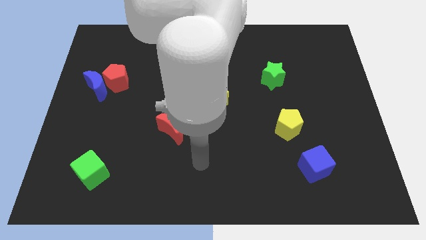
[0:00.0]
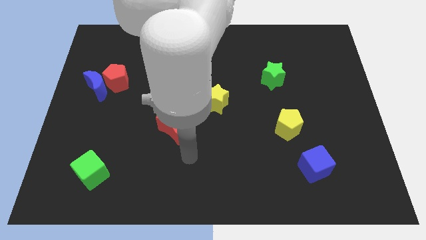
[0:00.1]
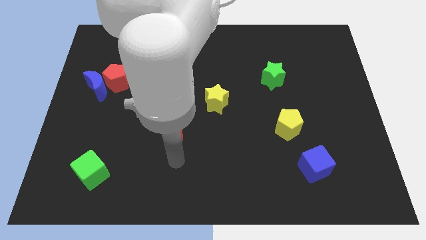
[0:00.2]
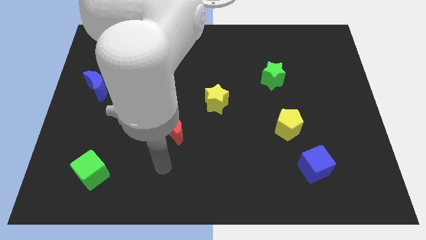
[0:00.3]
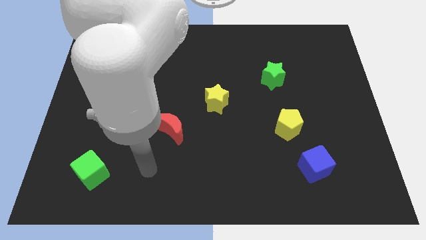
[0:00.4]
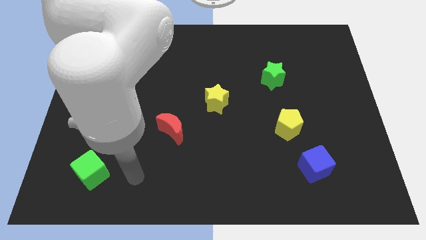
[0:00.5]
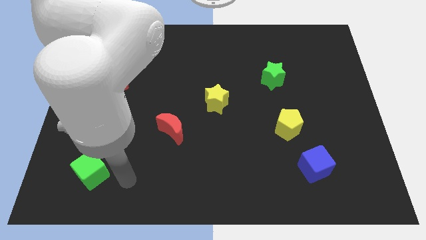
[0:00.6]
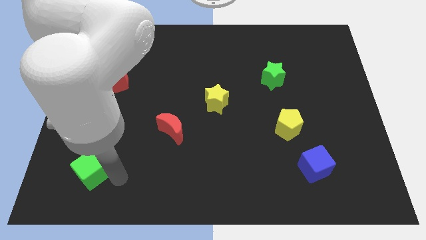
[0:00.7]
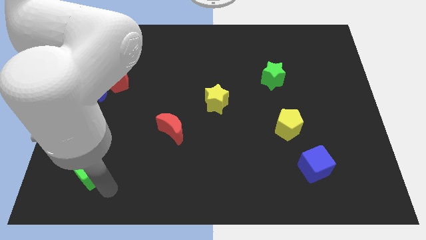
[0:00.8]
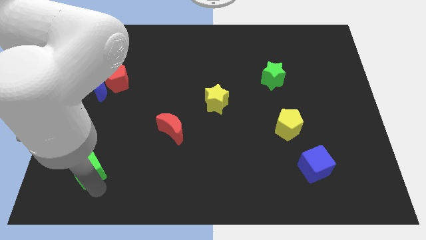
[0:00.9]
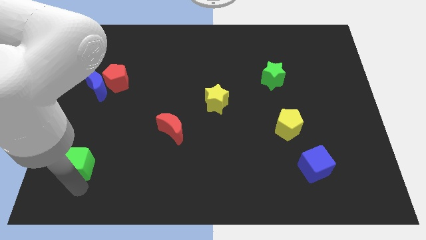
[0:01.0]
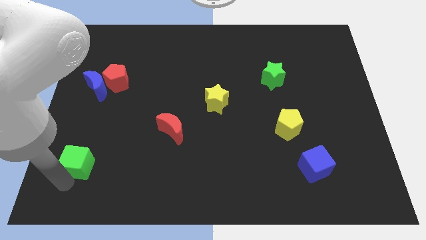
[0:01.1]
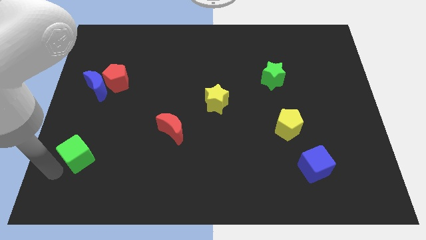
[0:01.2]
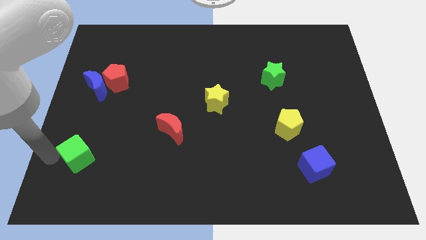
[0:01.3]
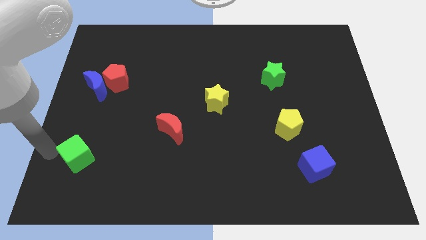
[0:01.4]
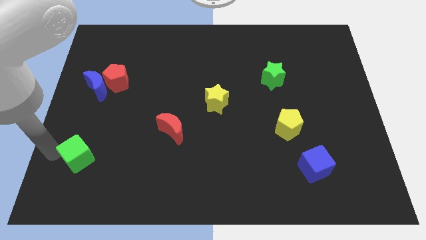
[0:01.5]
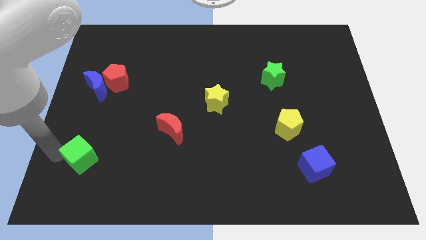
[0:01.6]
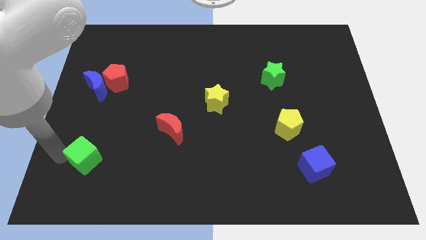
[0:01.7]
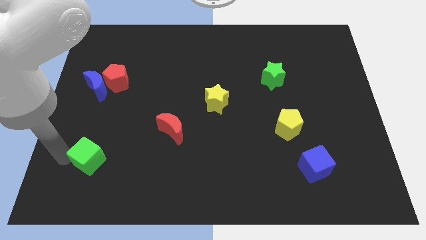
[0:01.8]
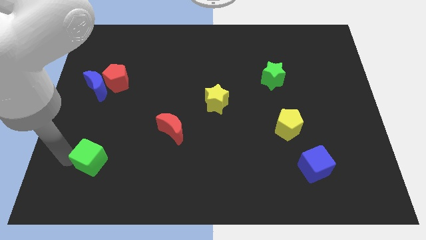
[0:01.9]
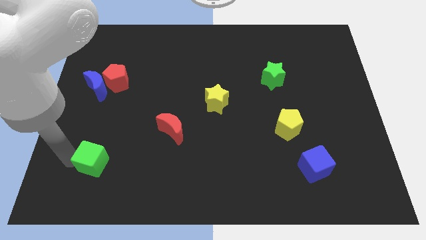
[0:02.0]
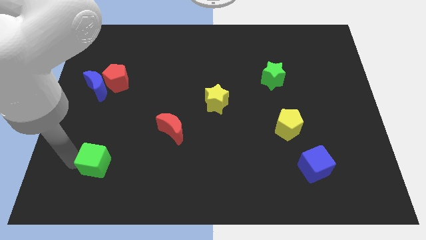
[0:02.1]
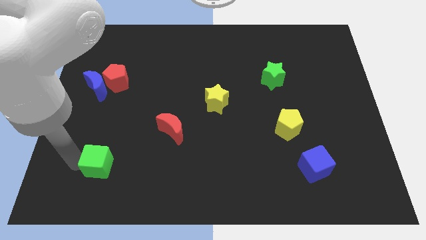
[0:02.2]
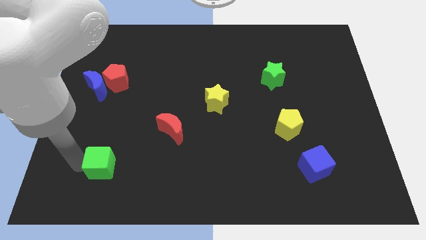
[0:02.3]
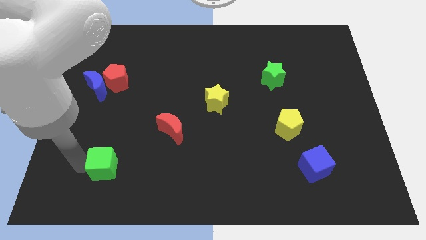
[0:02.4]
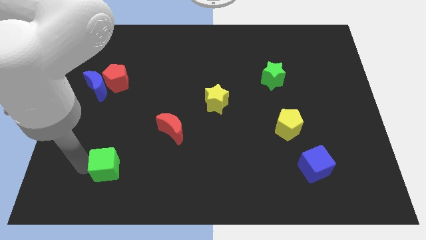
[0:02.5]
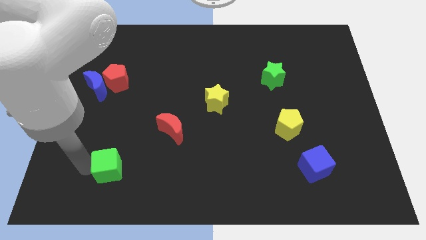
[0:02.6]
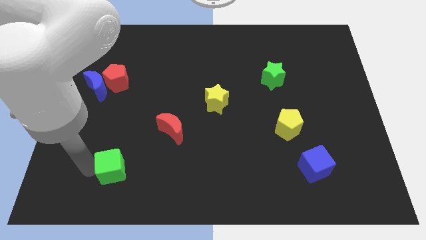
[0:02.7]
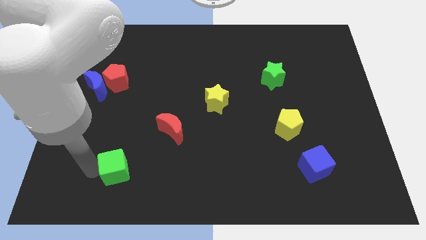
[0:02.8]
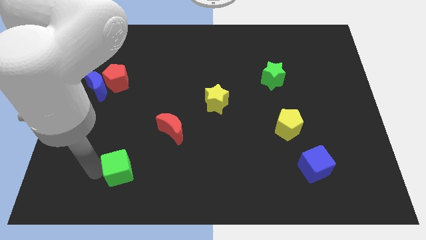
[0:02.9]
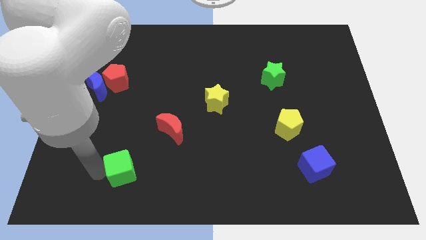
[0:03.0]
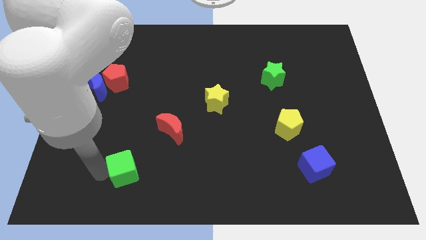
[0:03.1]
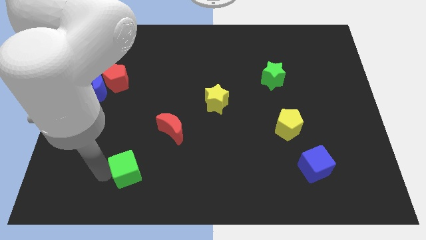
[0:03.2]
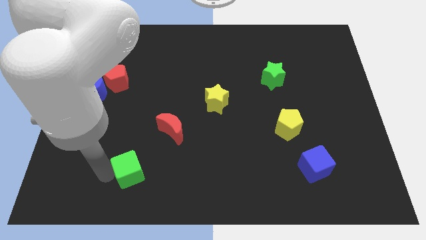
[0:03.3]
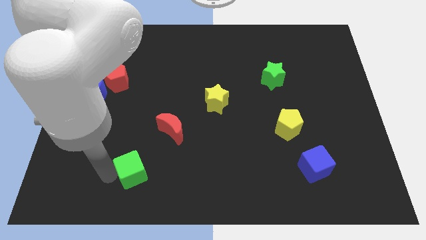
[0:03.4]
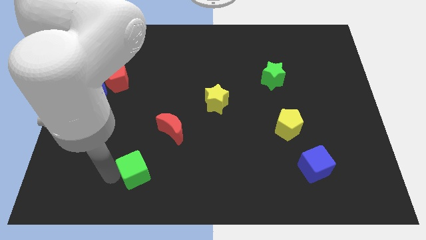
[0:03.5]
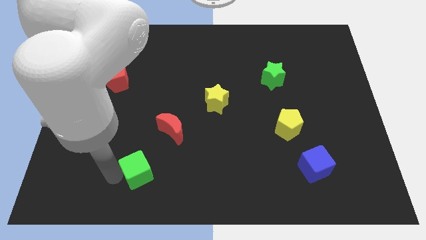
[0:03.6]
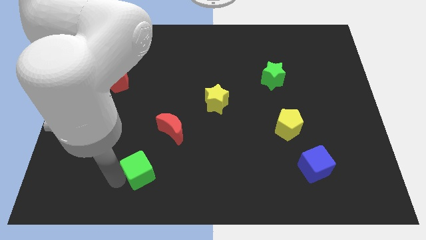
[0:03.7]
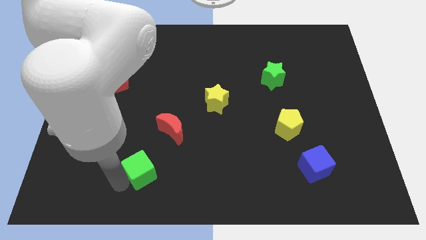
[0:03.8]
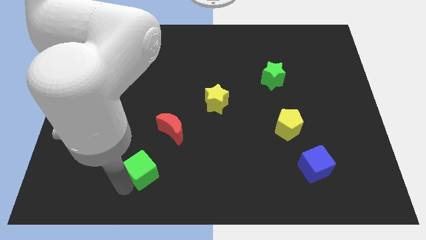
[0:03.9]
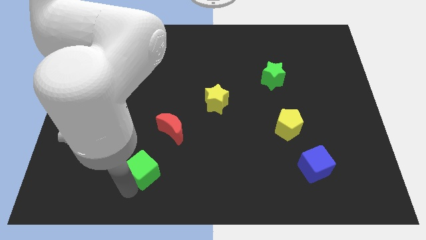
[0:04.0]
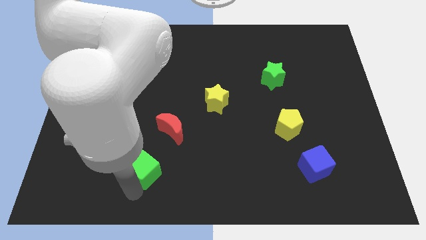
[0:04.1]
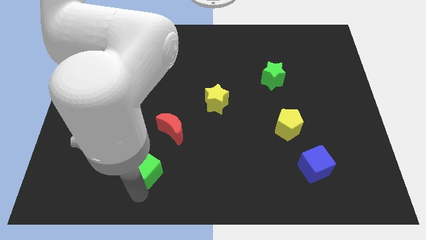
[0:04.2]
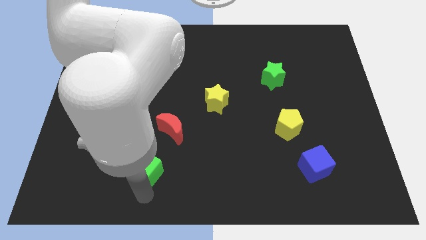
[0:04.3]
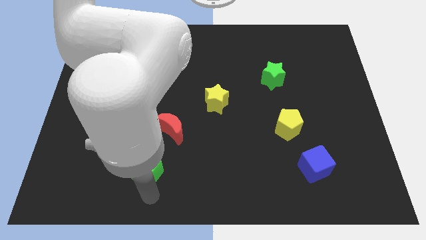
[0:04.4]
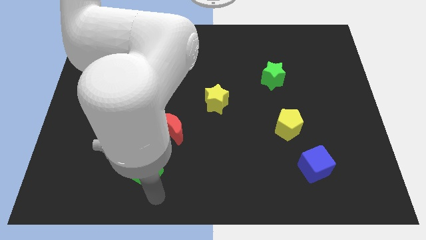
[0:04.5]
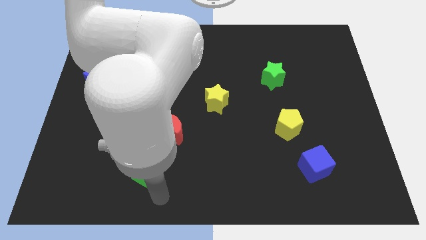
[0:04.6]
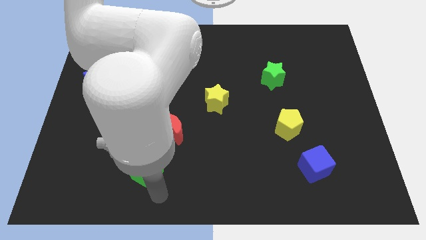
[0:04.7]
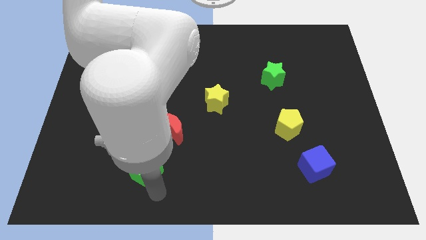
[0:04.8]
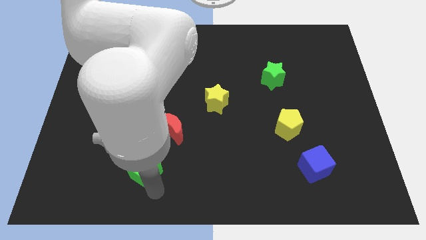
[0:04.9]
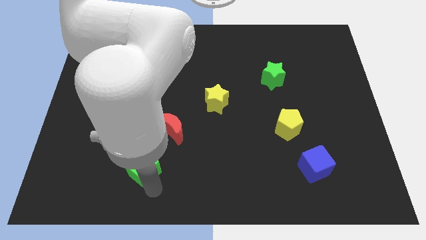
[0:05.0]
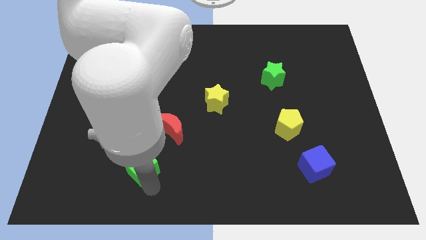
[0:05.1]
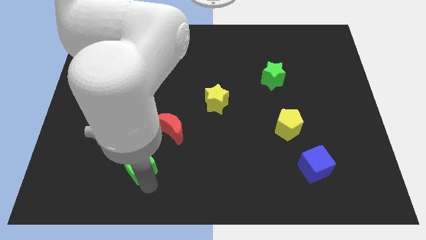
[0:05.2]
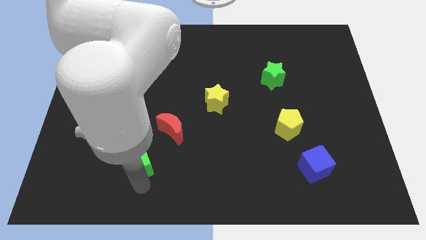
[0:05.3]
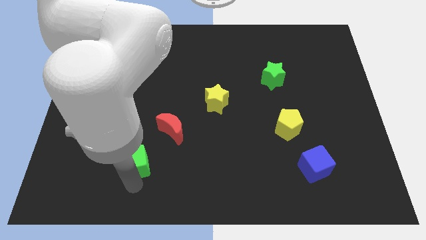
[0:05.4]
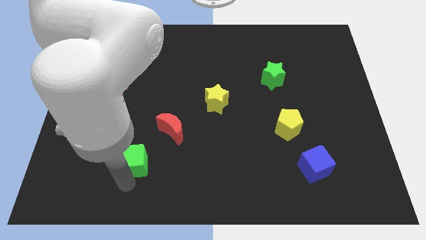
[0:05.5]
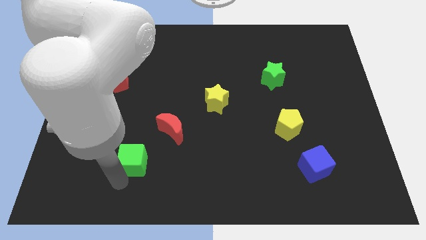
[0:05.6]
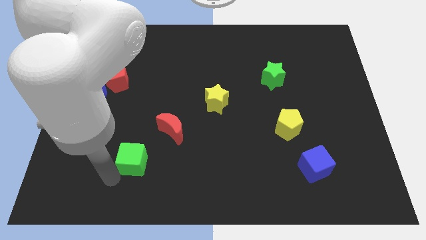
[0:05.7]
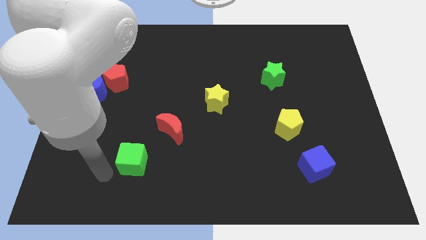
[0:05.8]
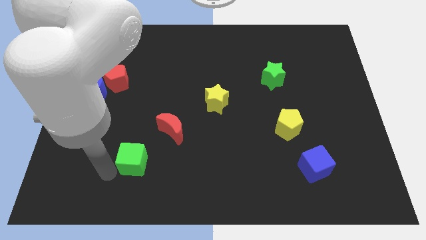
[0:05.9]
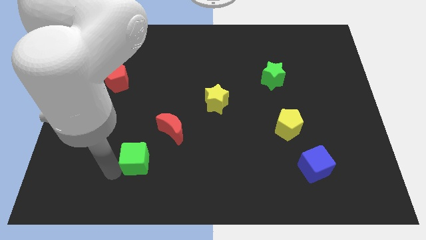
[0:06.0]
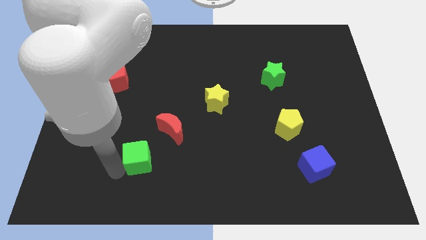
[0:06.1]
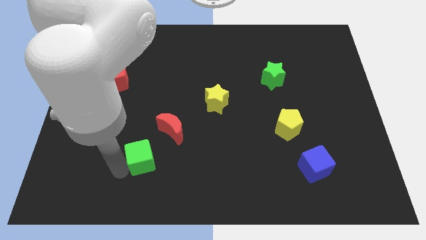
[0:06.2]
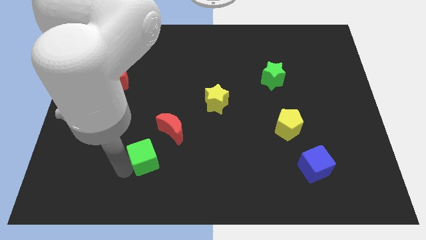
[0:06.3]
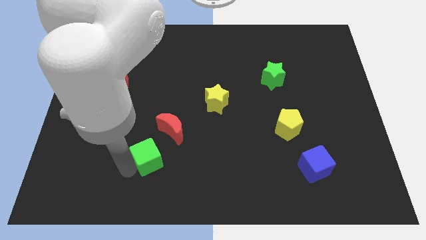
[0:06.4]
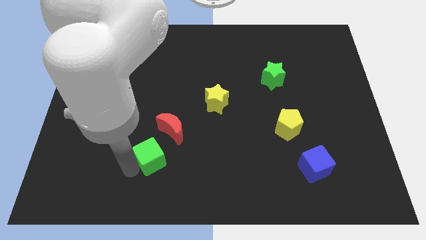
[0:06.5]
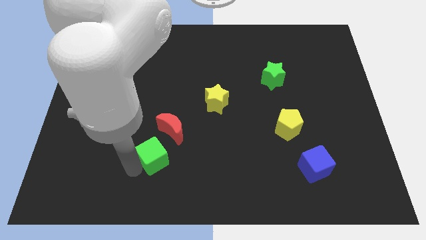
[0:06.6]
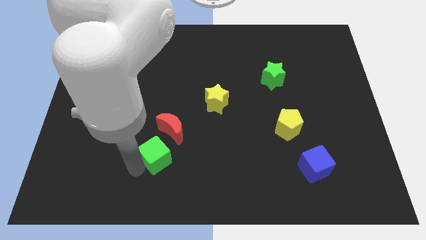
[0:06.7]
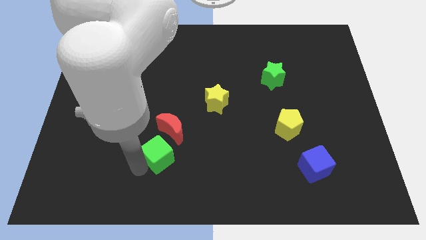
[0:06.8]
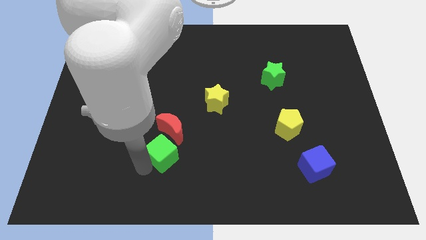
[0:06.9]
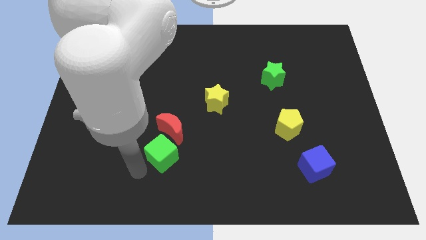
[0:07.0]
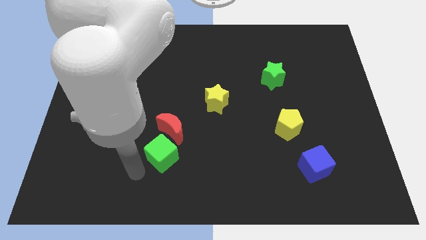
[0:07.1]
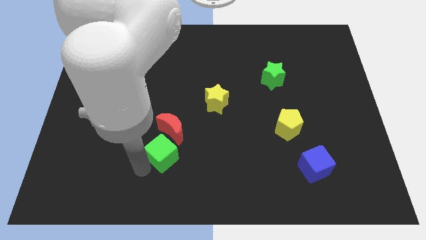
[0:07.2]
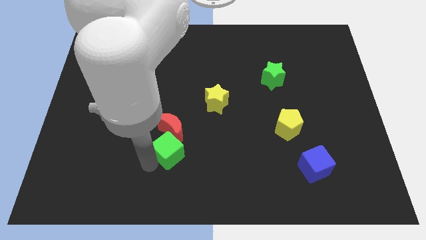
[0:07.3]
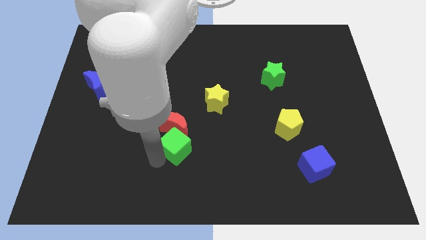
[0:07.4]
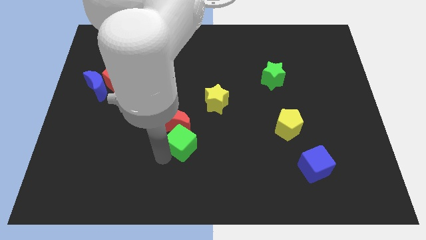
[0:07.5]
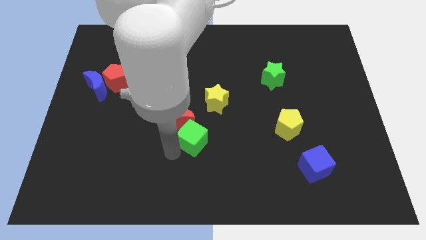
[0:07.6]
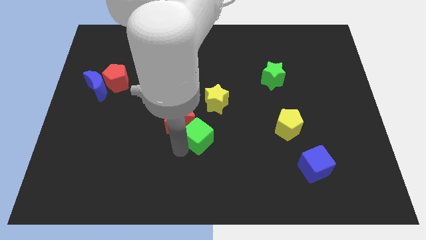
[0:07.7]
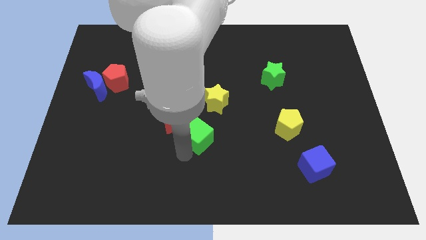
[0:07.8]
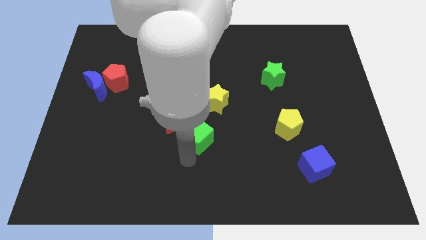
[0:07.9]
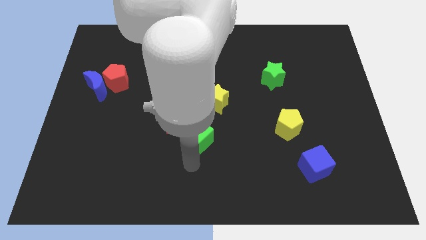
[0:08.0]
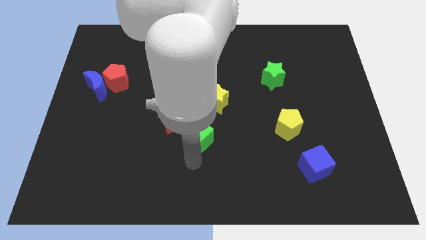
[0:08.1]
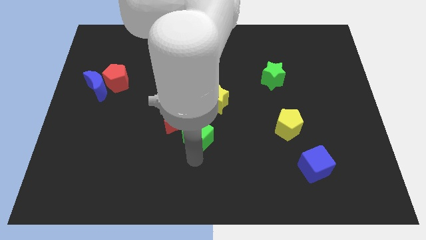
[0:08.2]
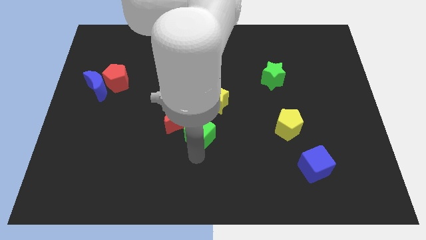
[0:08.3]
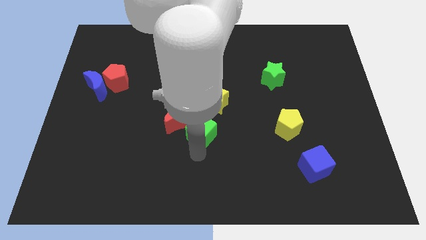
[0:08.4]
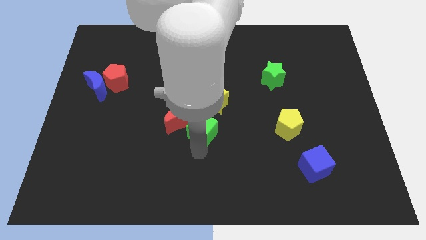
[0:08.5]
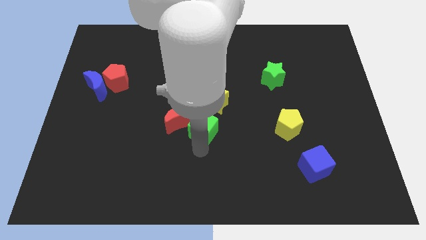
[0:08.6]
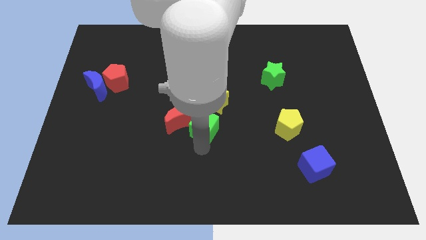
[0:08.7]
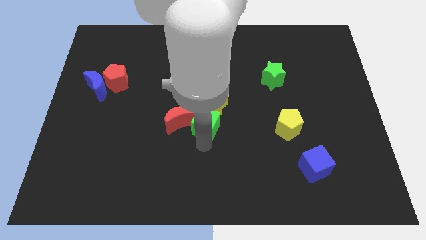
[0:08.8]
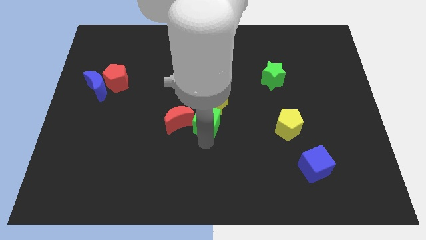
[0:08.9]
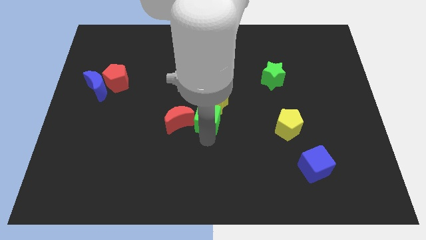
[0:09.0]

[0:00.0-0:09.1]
slide the green cube close to the yellow star
